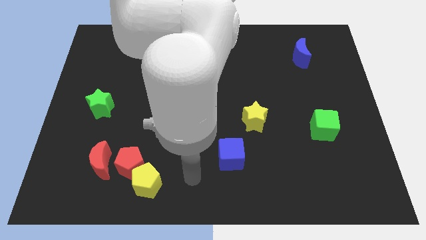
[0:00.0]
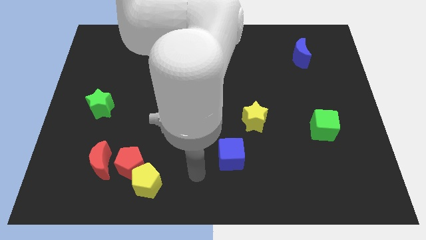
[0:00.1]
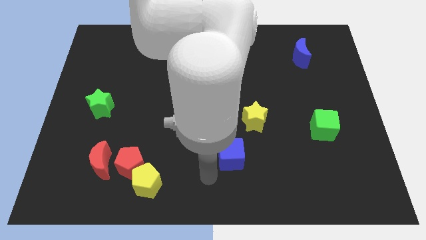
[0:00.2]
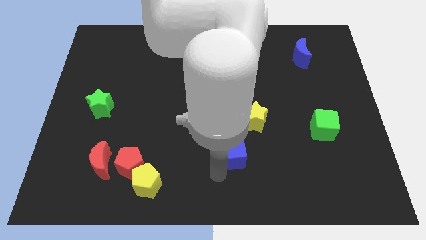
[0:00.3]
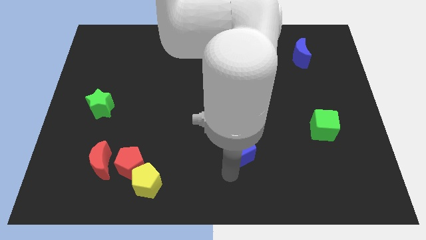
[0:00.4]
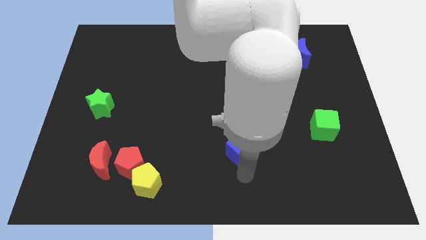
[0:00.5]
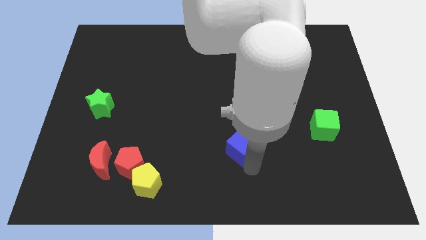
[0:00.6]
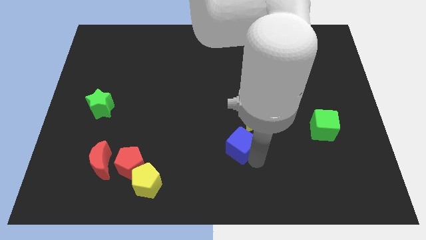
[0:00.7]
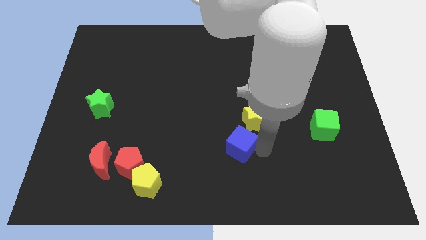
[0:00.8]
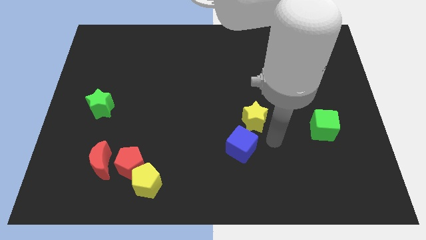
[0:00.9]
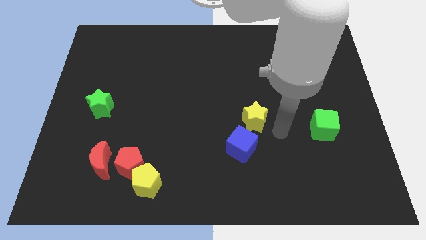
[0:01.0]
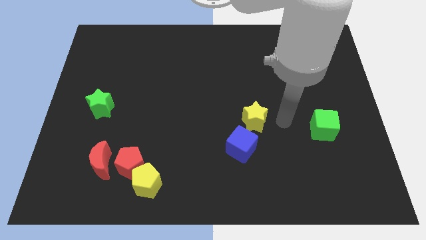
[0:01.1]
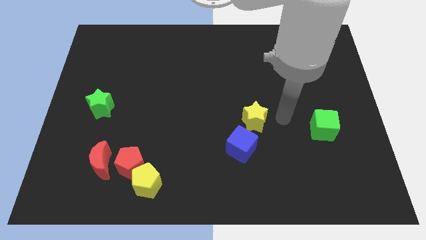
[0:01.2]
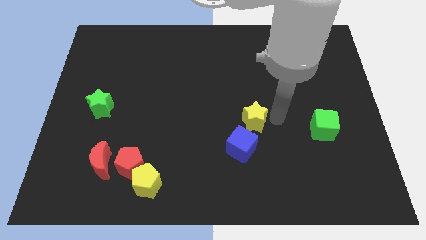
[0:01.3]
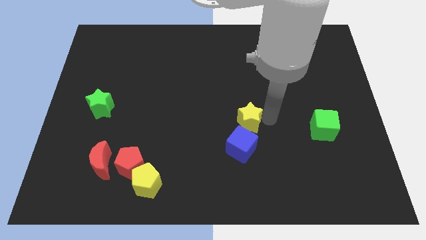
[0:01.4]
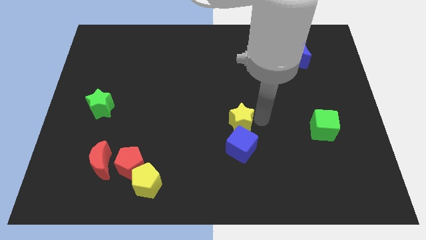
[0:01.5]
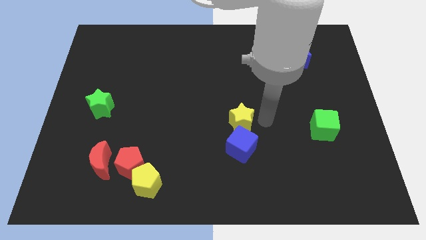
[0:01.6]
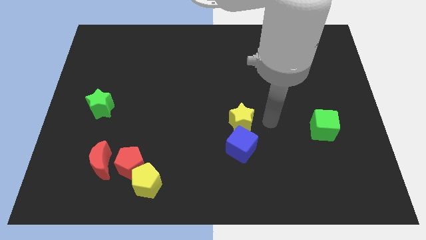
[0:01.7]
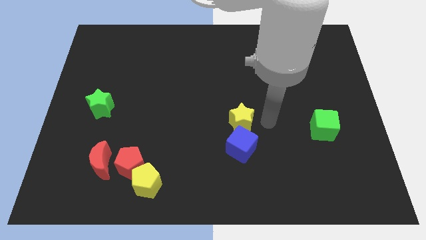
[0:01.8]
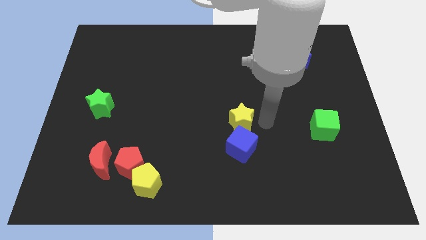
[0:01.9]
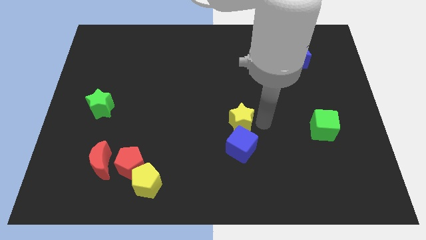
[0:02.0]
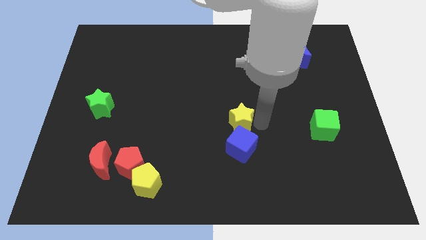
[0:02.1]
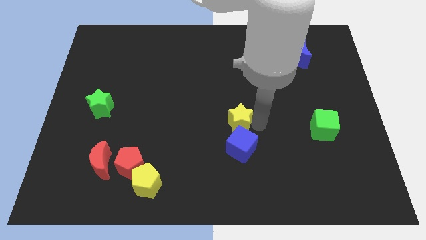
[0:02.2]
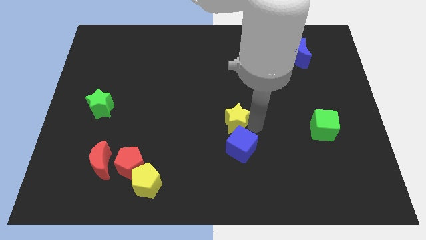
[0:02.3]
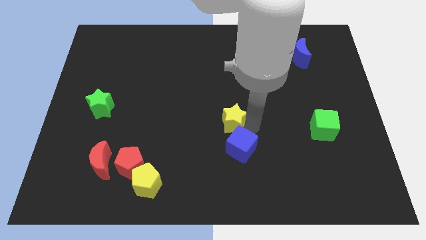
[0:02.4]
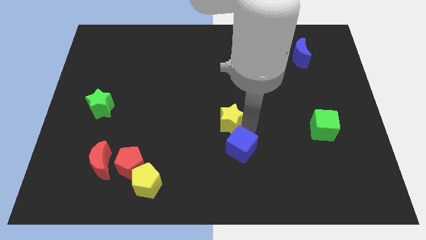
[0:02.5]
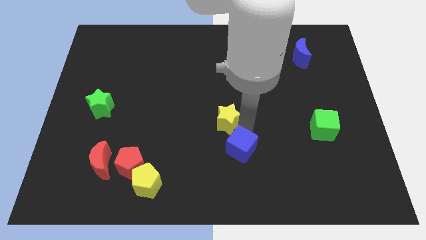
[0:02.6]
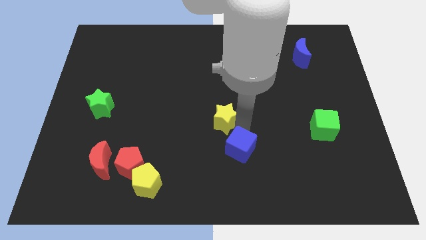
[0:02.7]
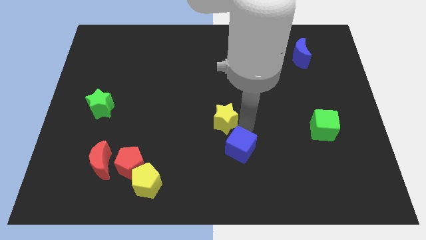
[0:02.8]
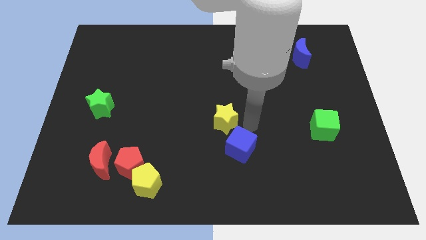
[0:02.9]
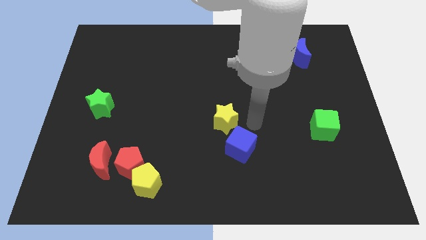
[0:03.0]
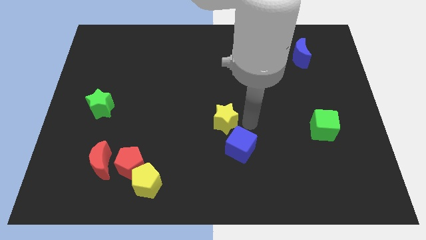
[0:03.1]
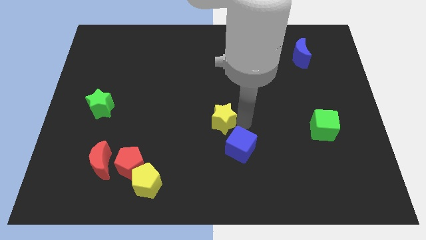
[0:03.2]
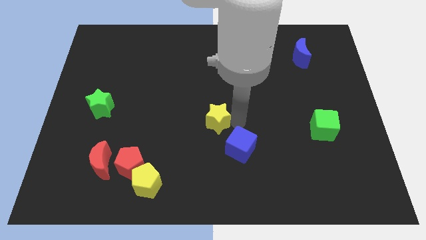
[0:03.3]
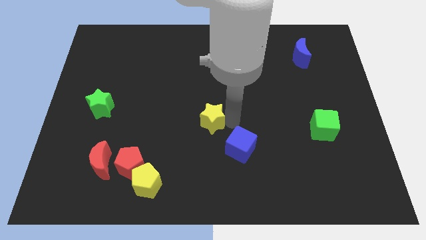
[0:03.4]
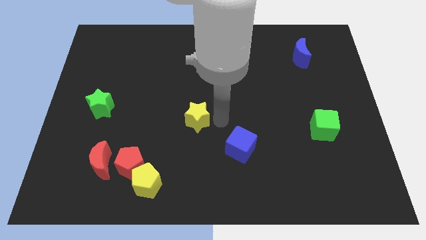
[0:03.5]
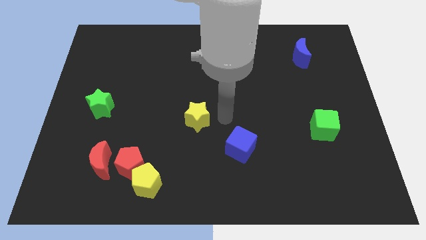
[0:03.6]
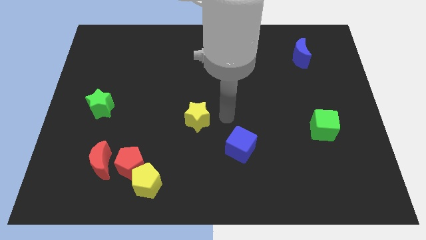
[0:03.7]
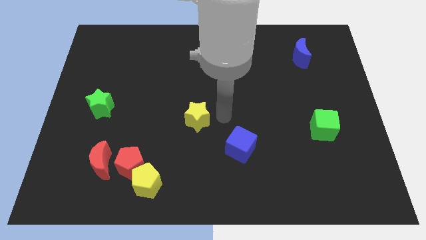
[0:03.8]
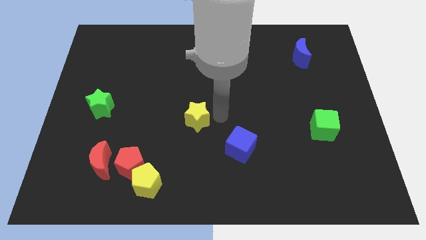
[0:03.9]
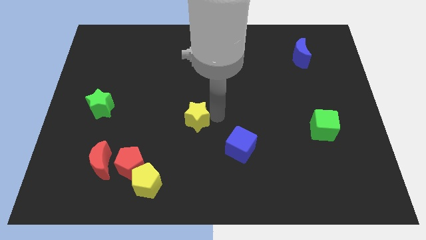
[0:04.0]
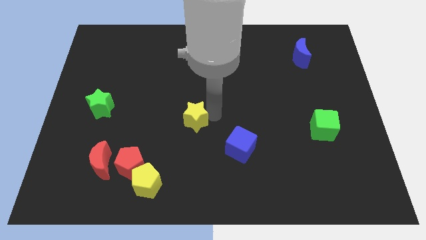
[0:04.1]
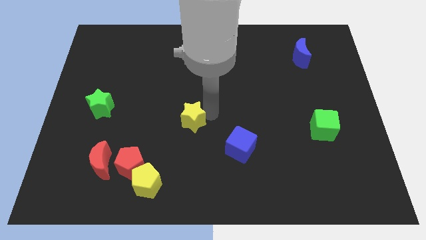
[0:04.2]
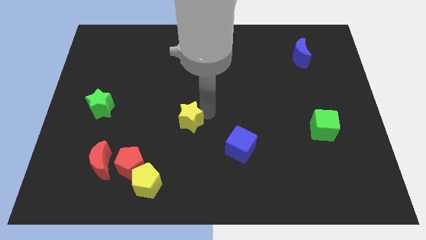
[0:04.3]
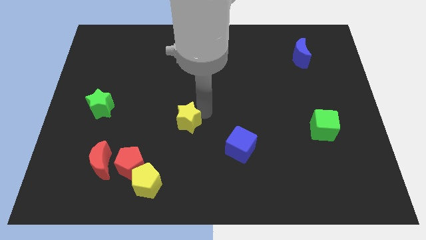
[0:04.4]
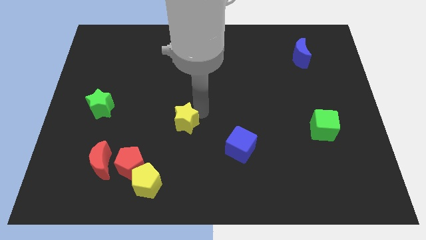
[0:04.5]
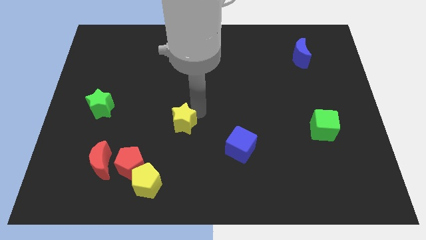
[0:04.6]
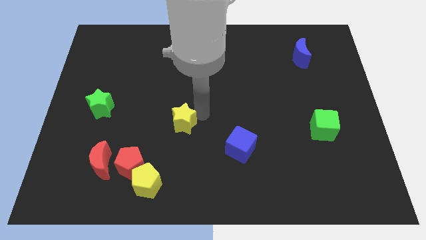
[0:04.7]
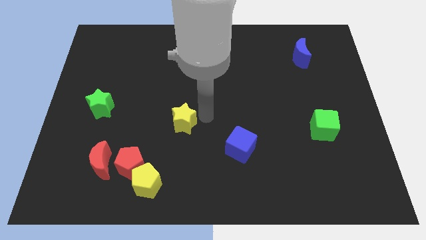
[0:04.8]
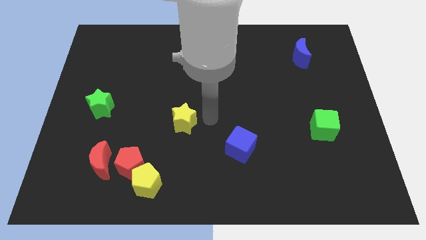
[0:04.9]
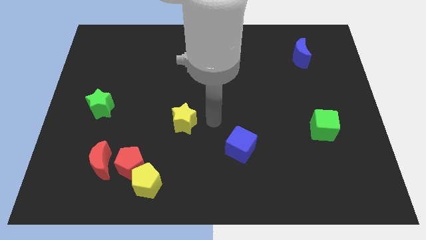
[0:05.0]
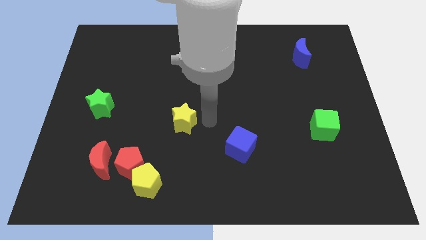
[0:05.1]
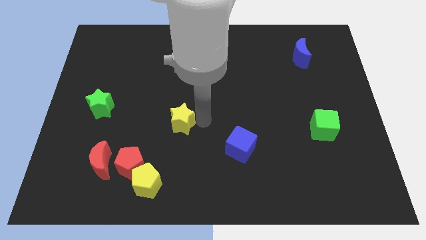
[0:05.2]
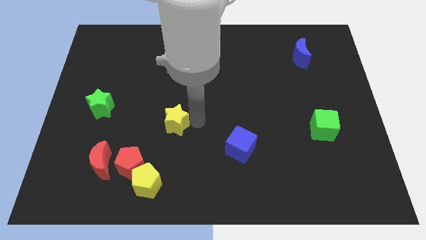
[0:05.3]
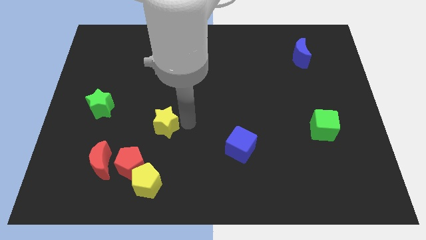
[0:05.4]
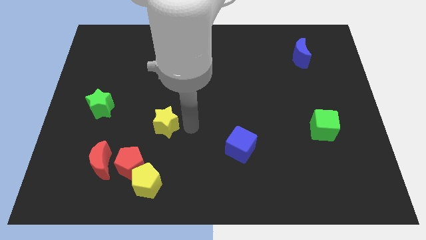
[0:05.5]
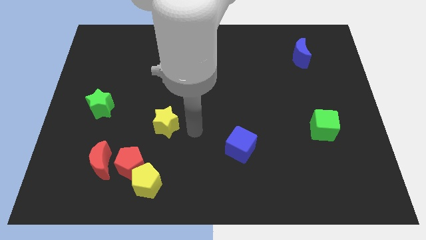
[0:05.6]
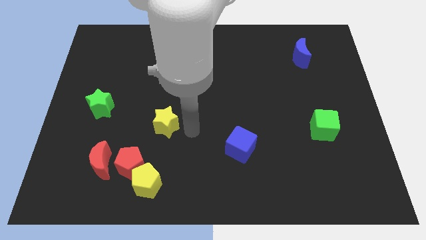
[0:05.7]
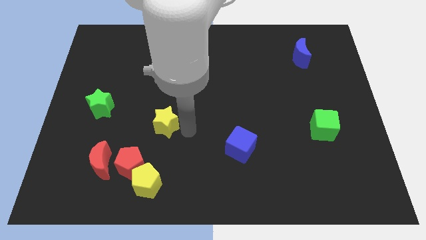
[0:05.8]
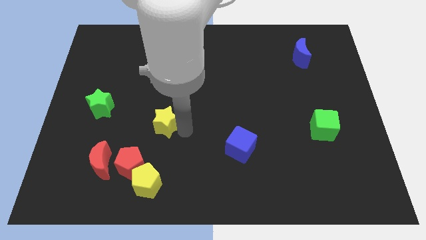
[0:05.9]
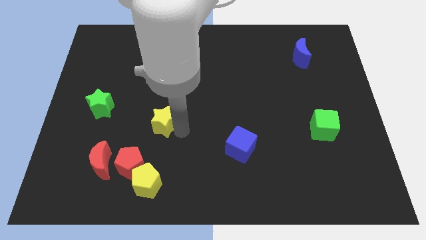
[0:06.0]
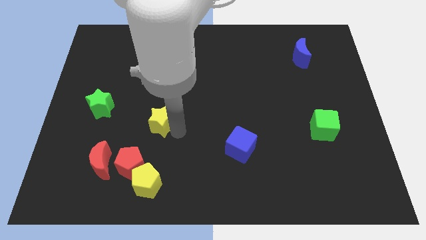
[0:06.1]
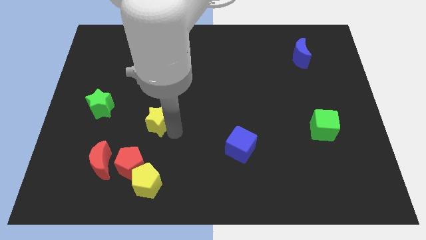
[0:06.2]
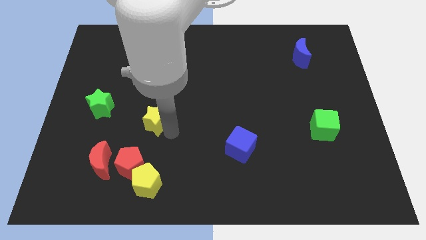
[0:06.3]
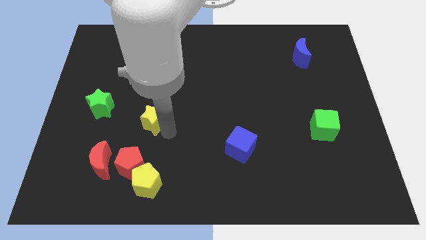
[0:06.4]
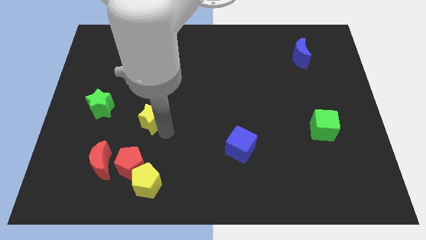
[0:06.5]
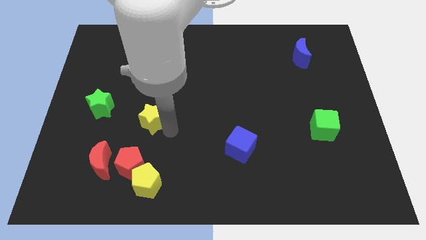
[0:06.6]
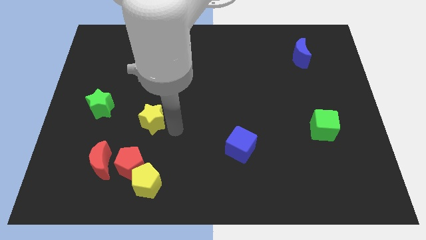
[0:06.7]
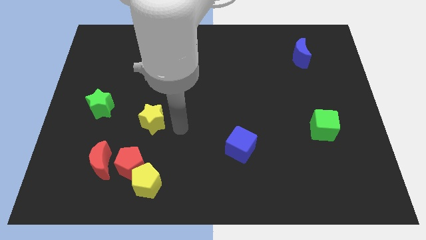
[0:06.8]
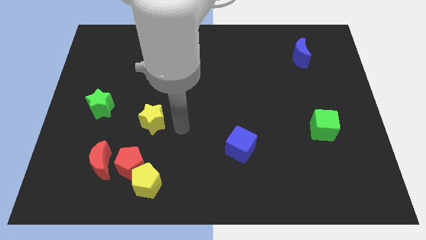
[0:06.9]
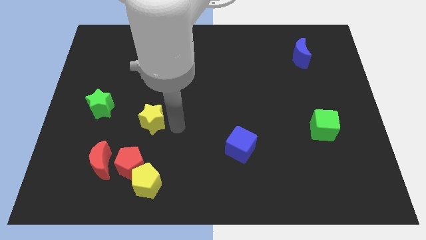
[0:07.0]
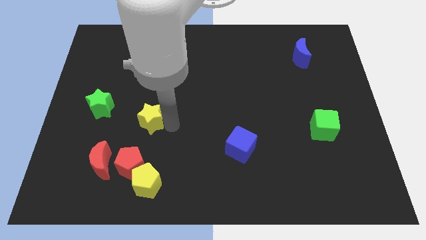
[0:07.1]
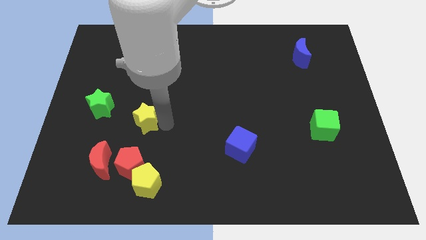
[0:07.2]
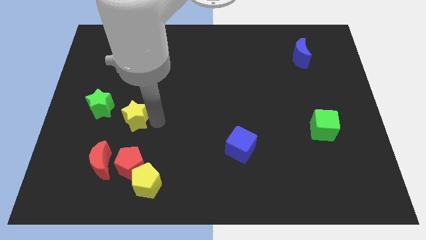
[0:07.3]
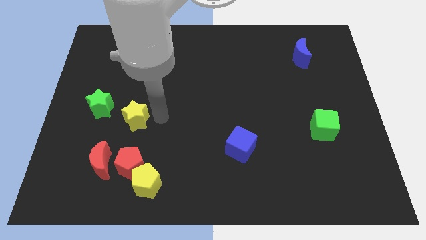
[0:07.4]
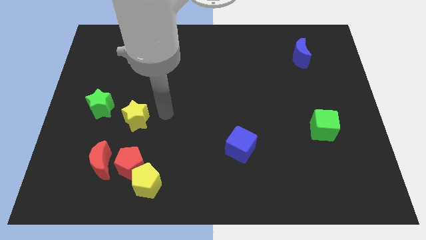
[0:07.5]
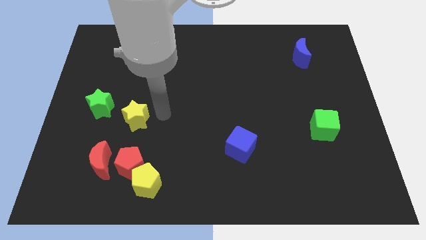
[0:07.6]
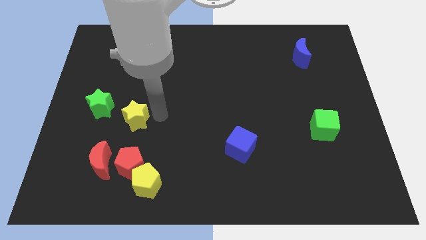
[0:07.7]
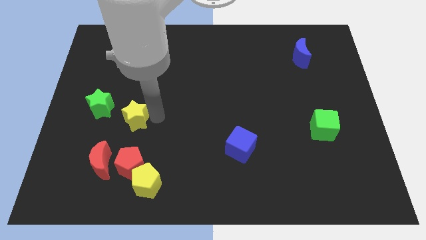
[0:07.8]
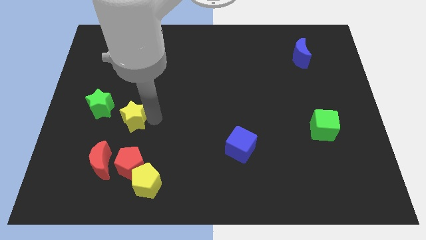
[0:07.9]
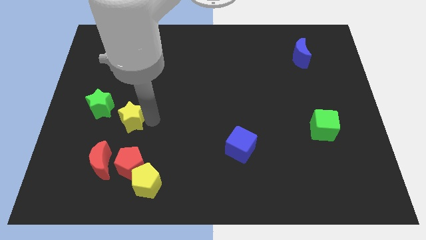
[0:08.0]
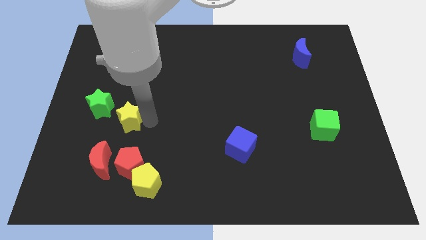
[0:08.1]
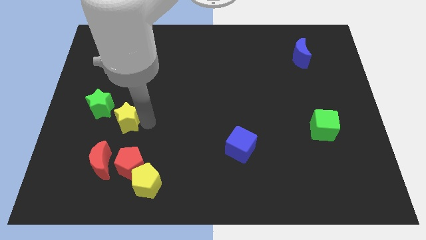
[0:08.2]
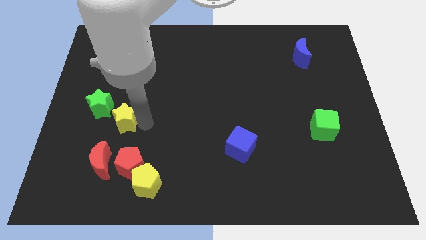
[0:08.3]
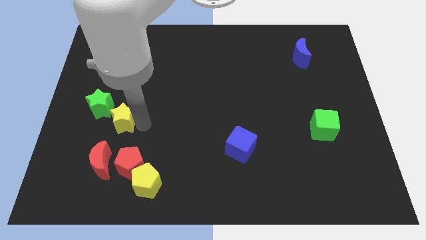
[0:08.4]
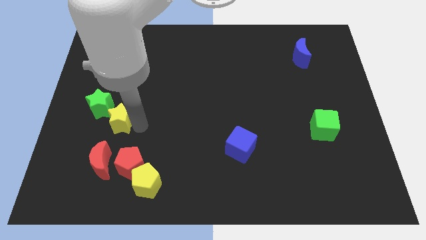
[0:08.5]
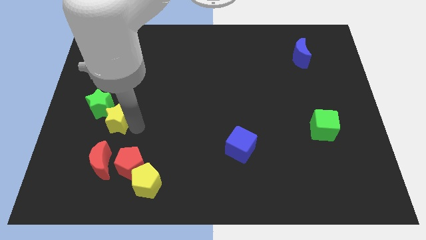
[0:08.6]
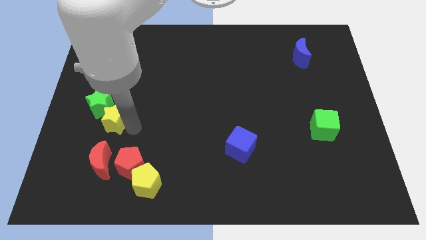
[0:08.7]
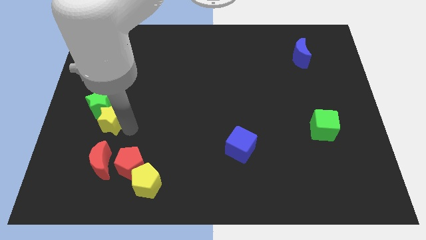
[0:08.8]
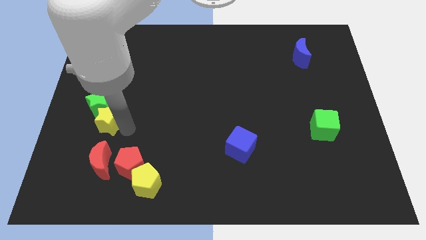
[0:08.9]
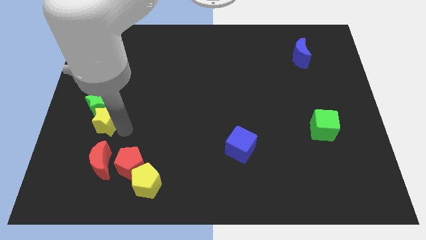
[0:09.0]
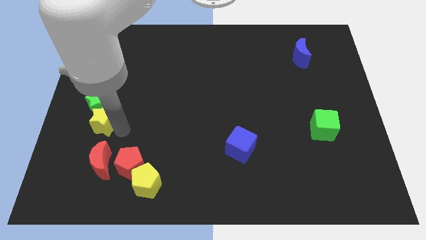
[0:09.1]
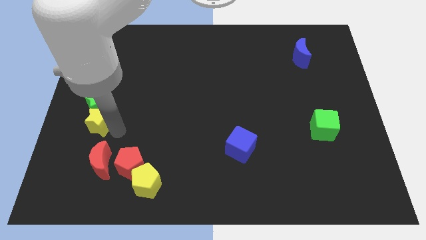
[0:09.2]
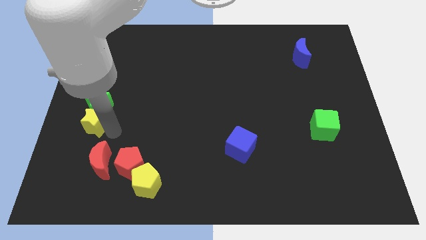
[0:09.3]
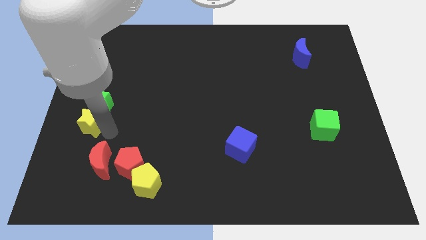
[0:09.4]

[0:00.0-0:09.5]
put the yellow star to the left side of the board
